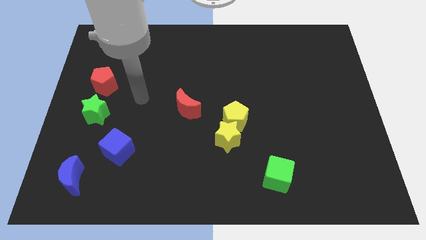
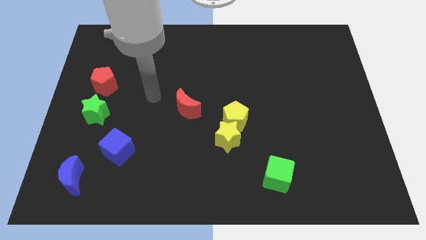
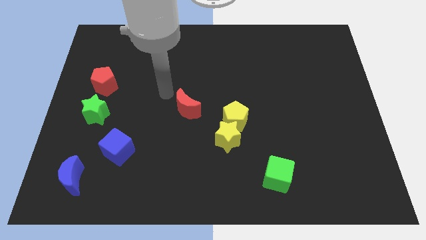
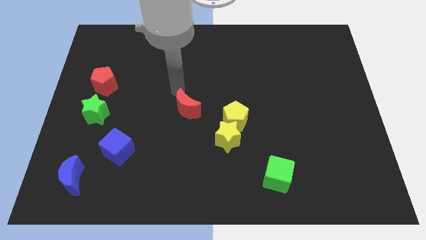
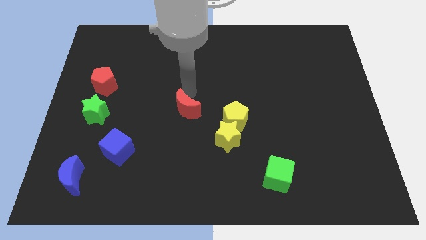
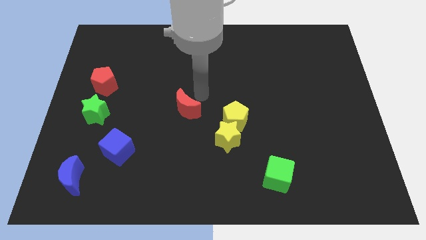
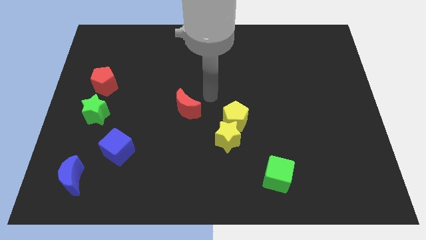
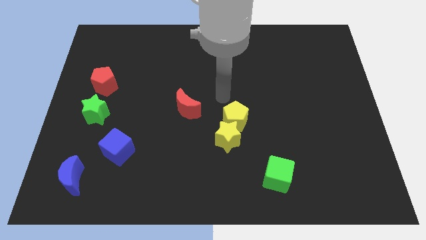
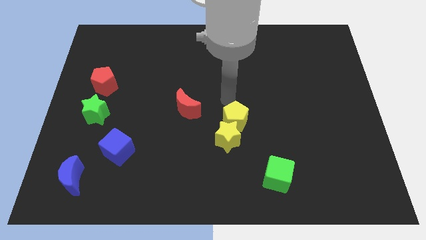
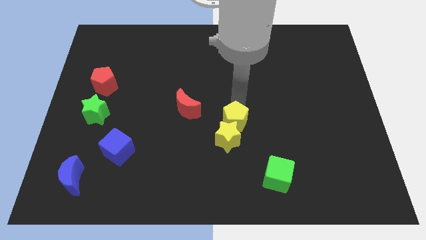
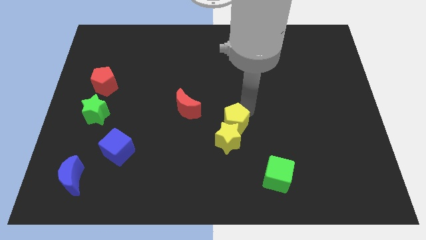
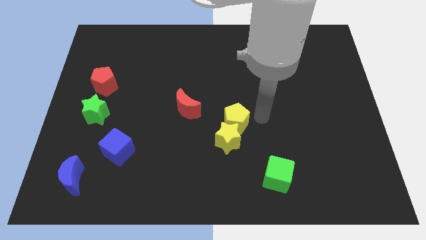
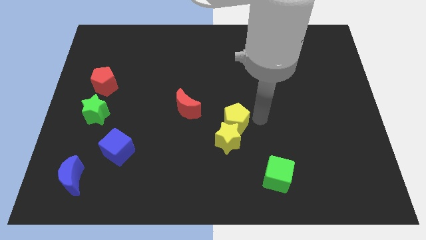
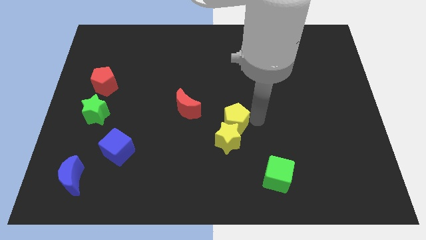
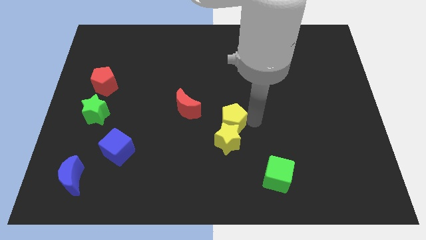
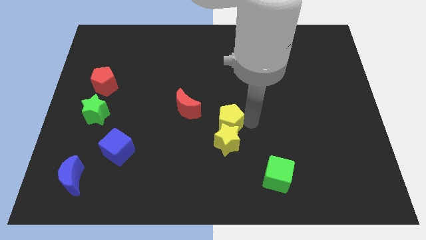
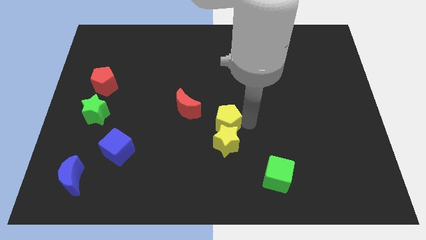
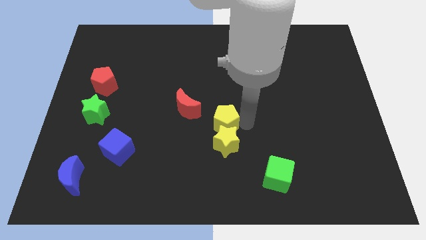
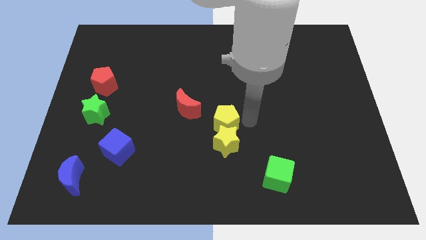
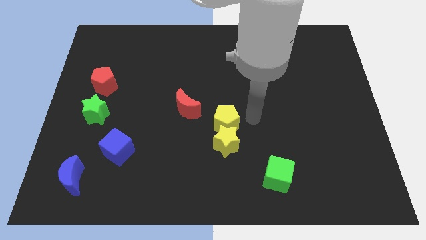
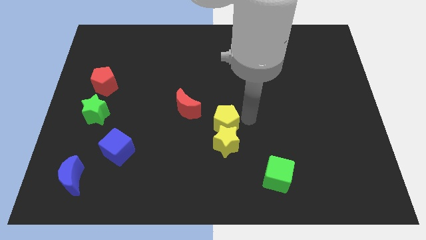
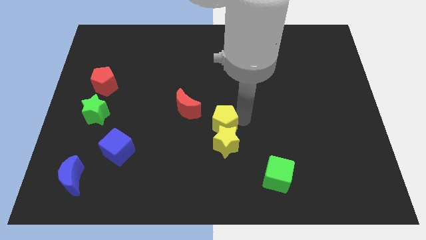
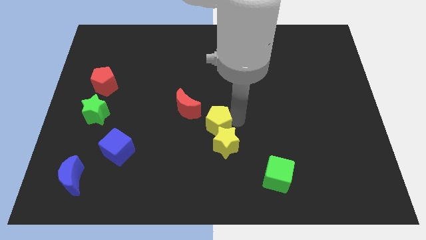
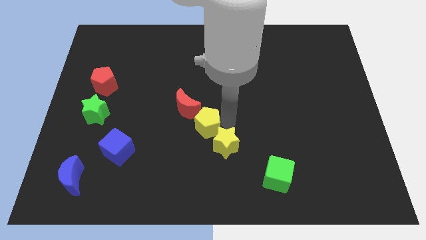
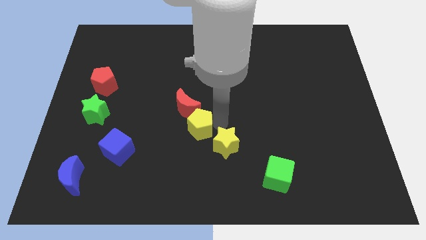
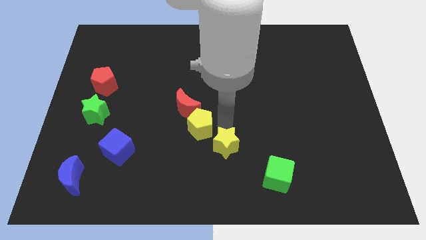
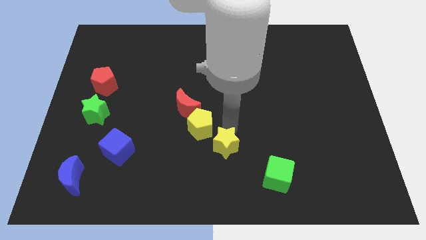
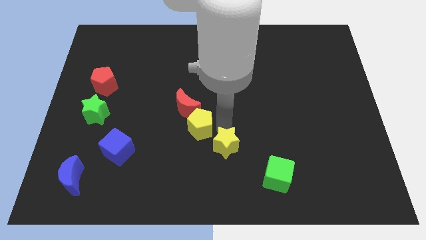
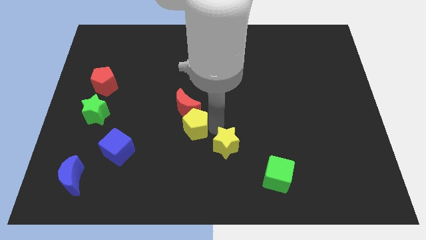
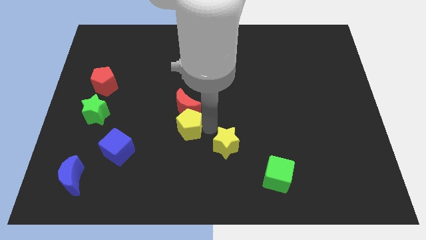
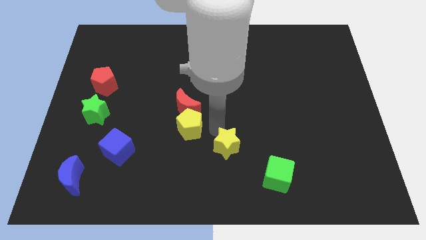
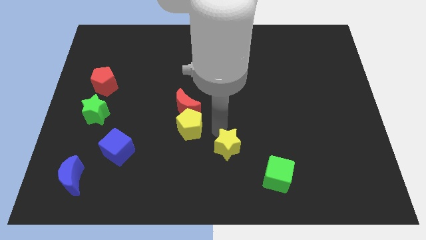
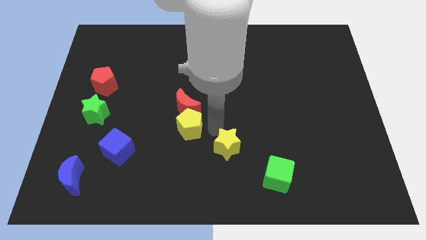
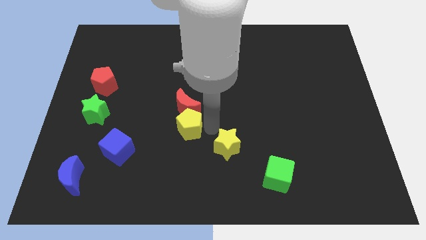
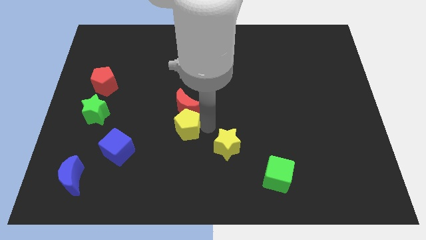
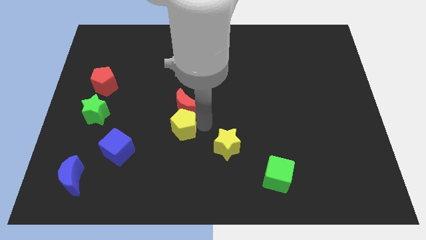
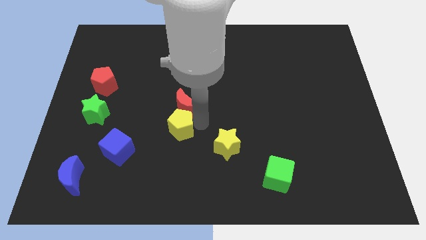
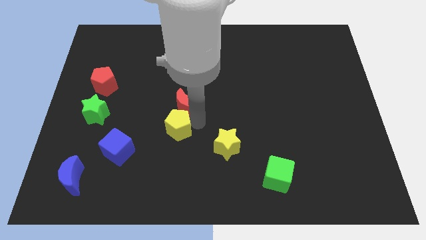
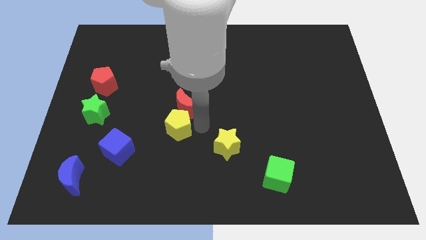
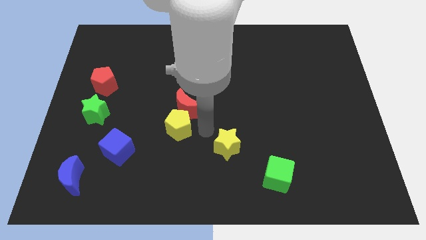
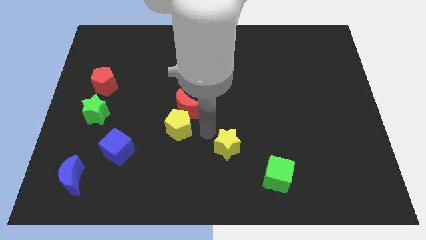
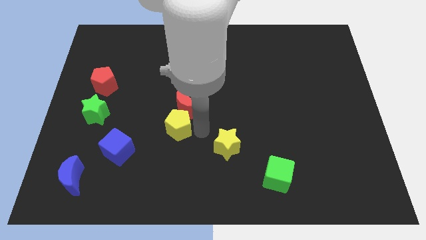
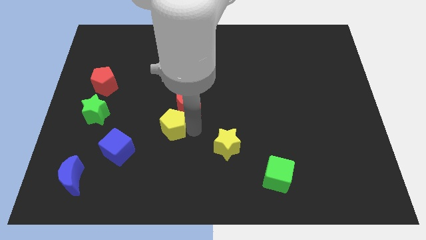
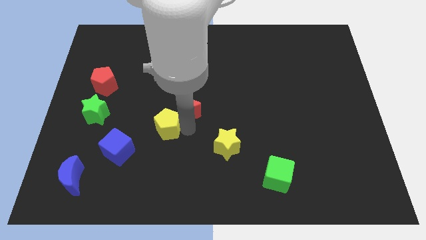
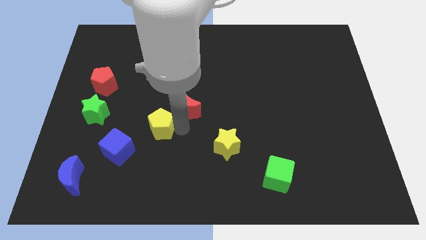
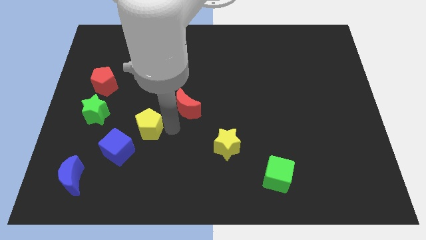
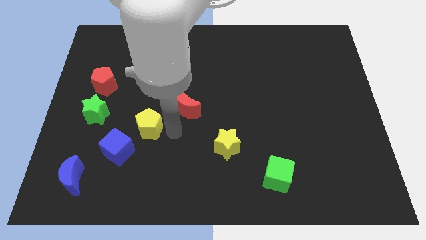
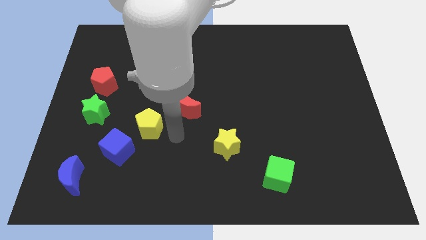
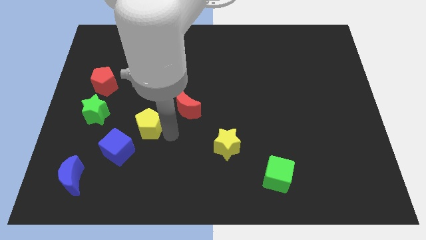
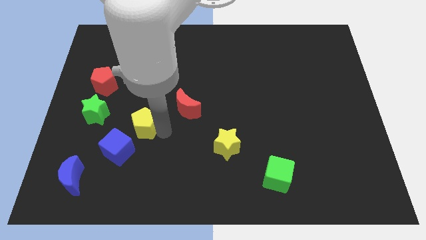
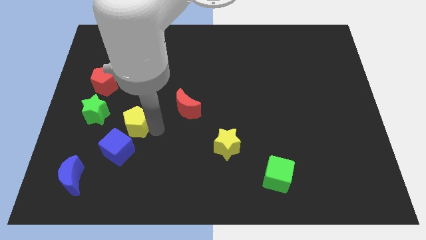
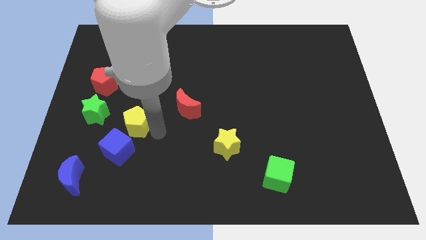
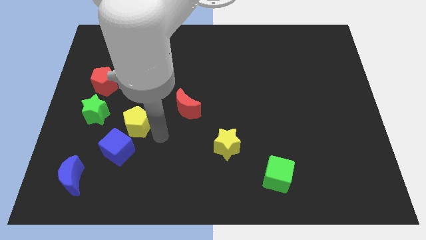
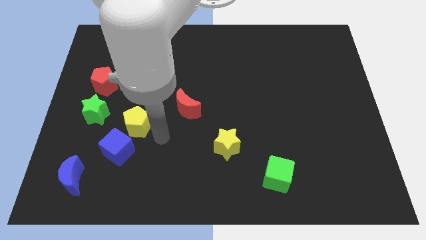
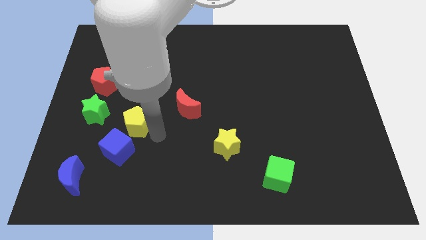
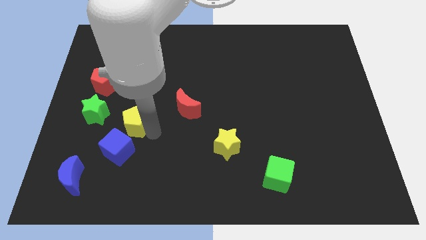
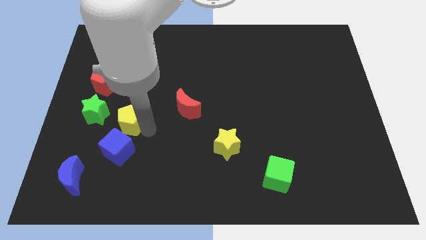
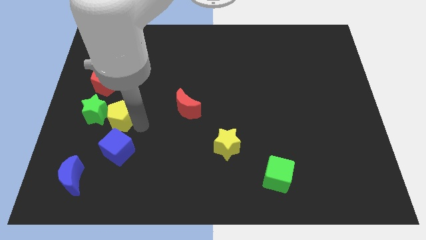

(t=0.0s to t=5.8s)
push the yellow pentagon close to the green star

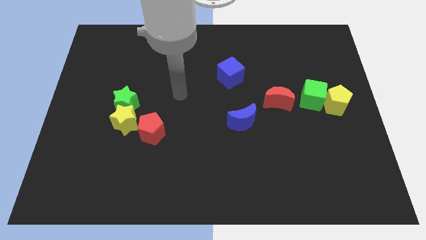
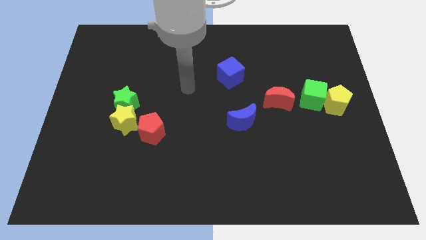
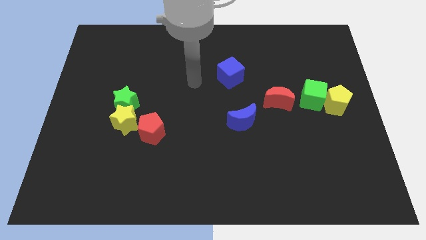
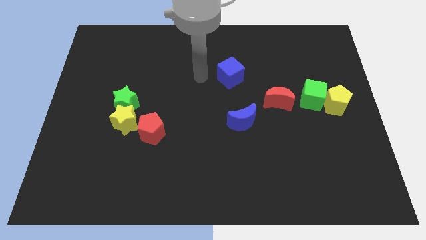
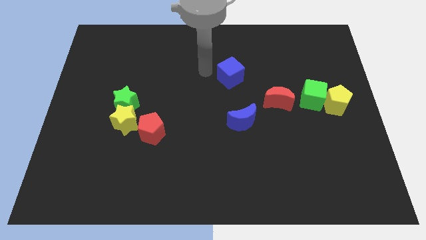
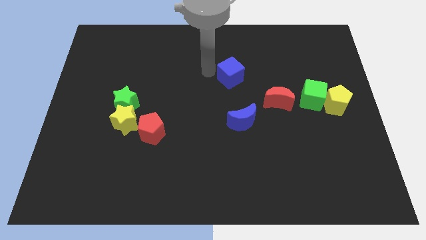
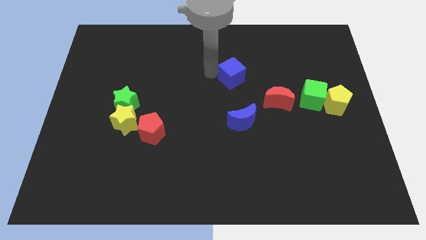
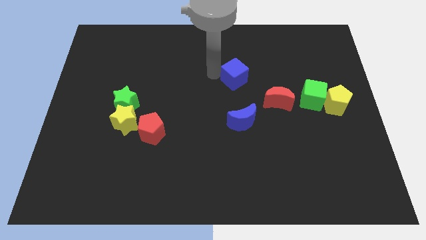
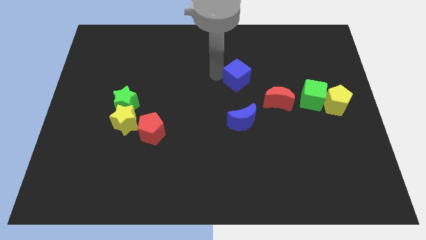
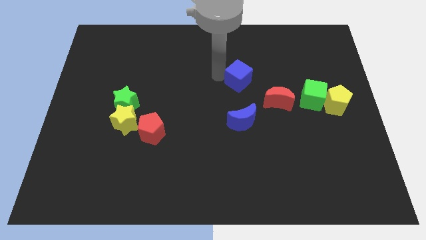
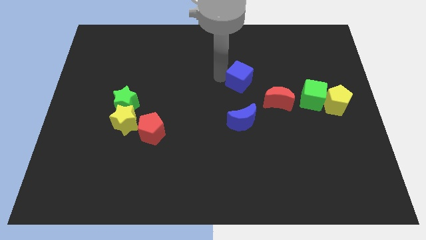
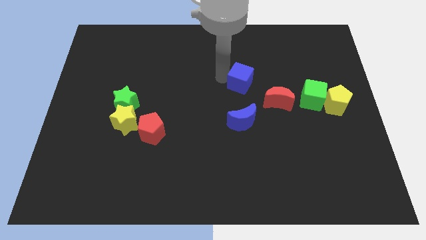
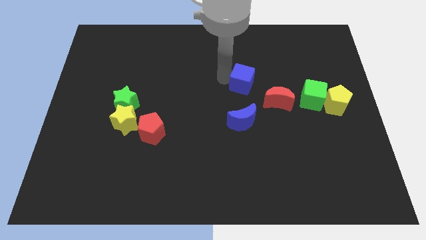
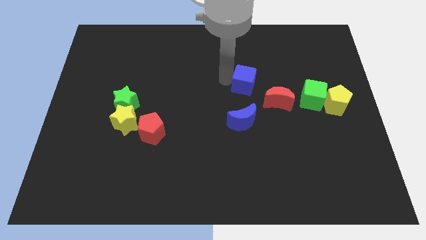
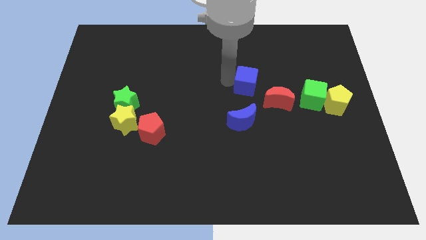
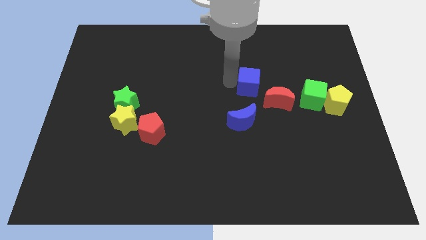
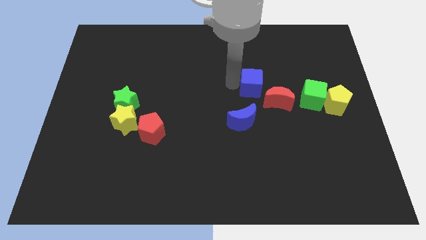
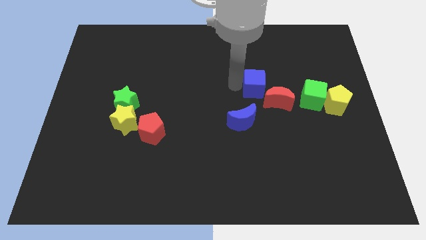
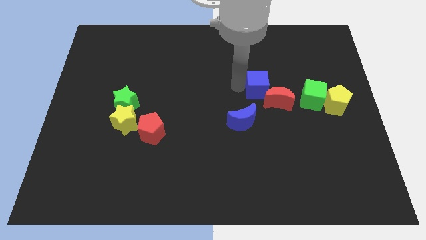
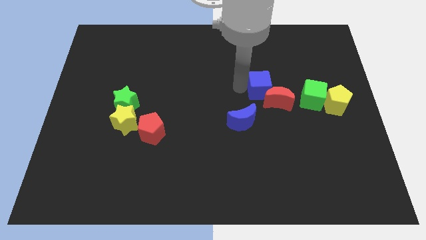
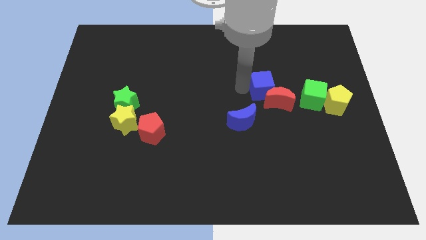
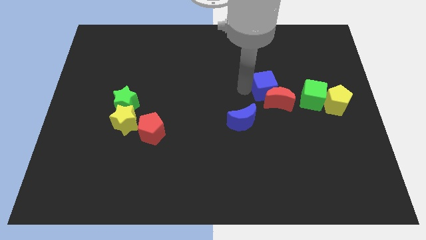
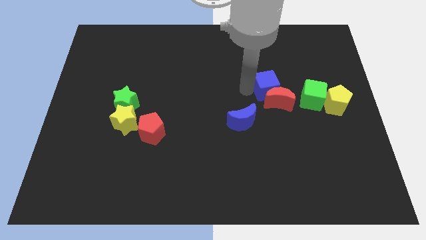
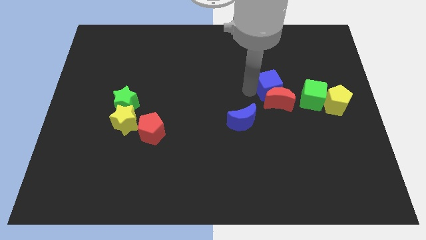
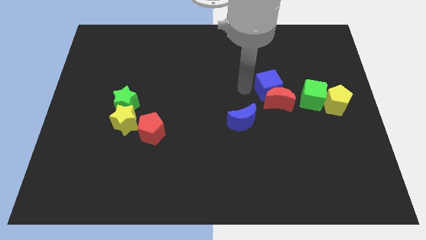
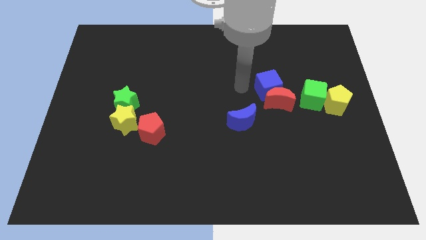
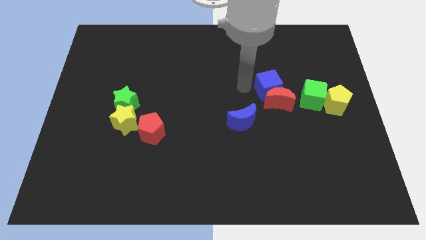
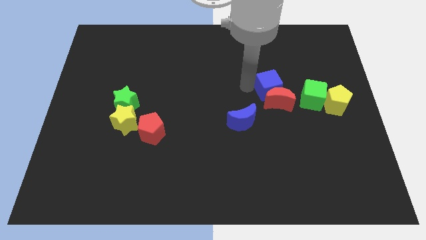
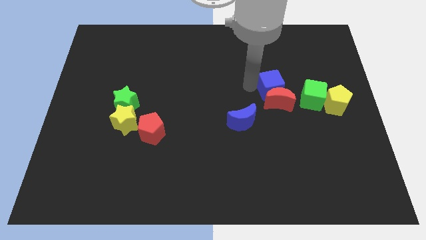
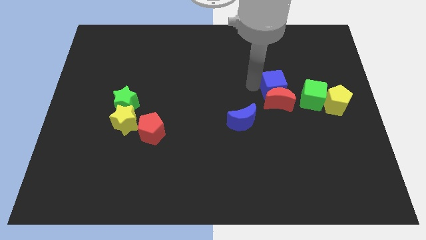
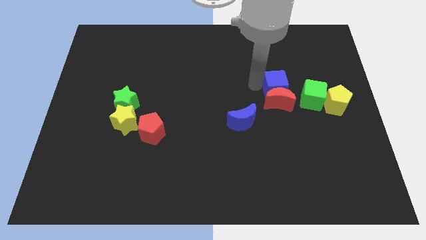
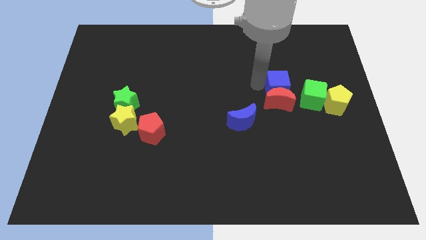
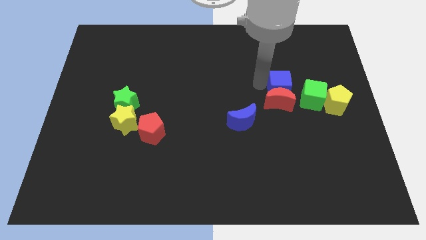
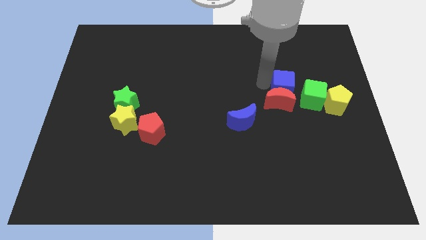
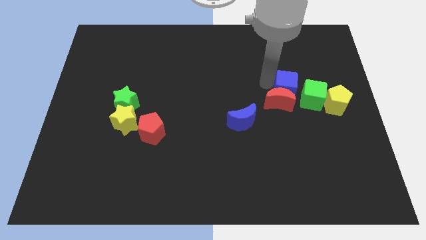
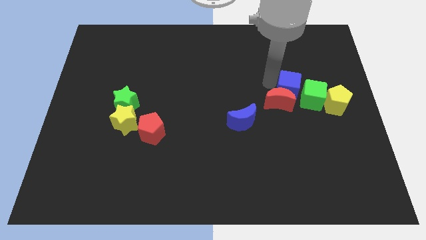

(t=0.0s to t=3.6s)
push the blue cube close to the green cube
